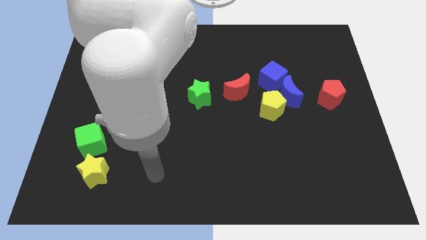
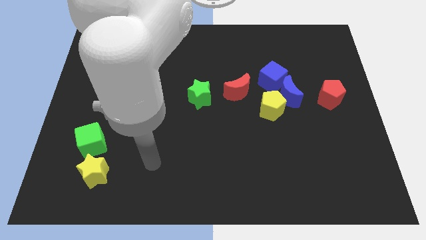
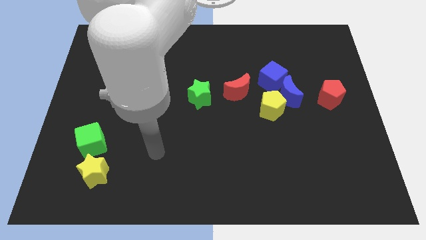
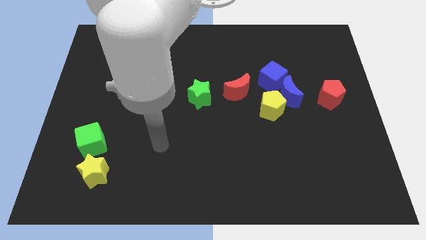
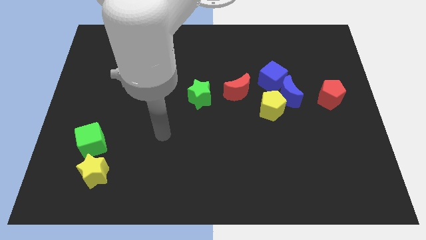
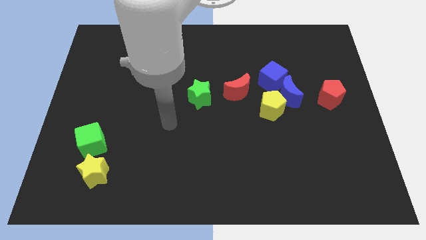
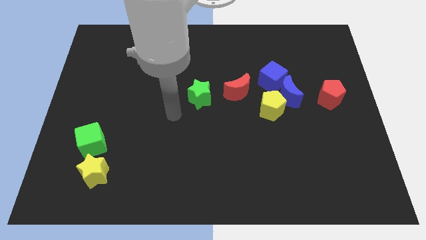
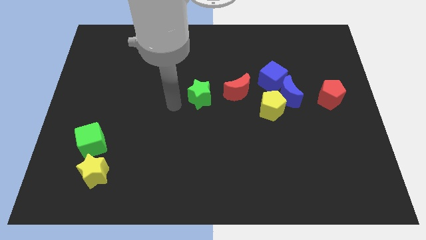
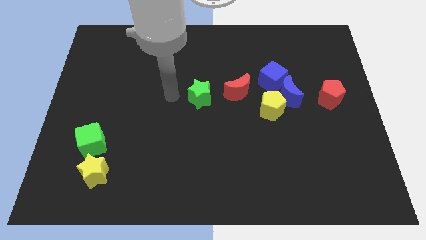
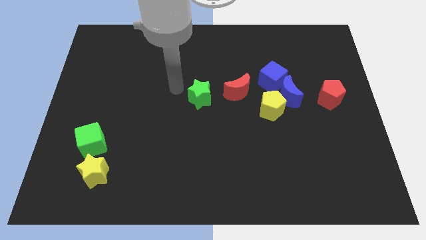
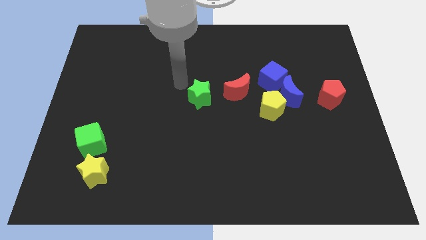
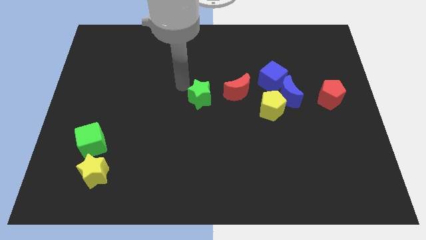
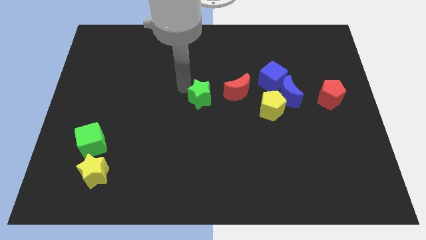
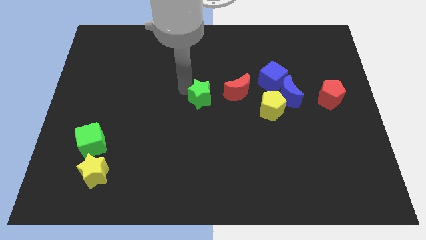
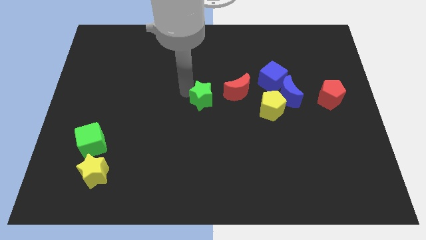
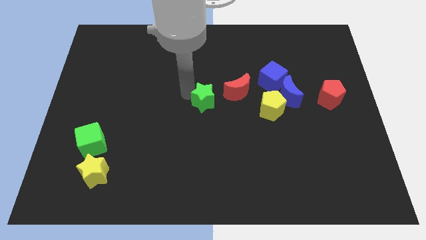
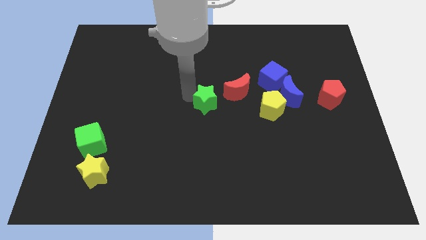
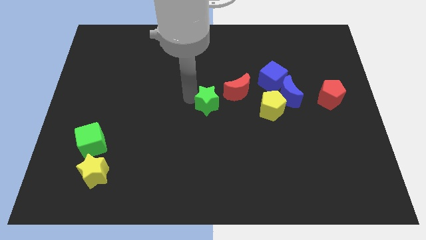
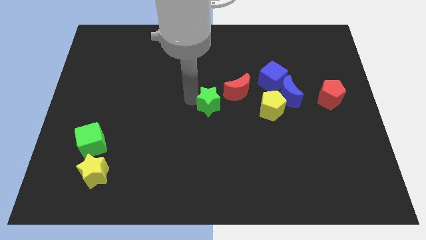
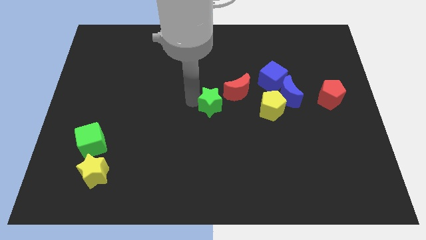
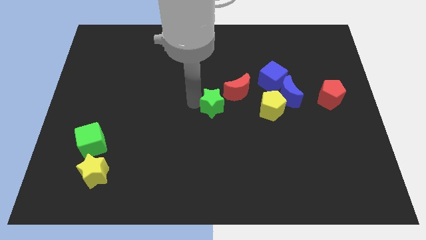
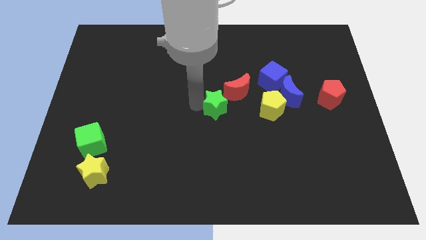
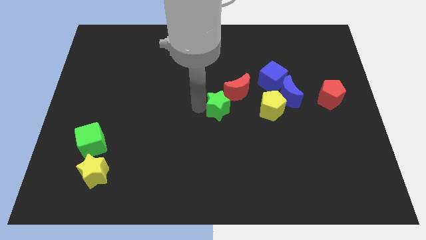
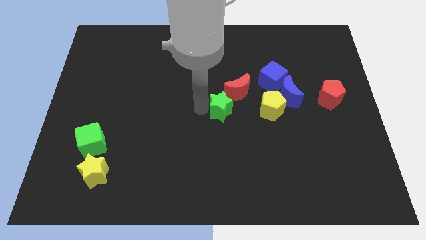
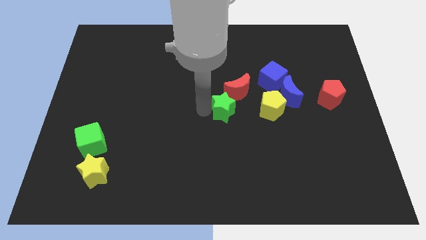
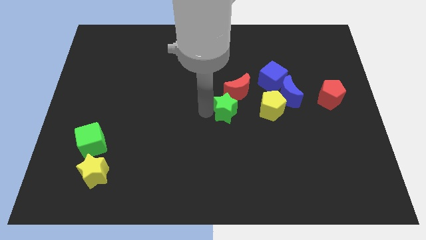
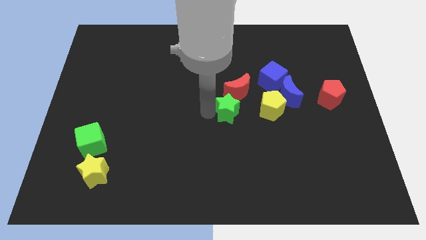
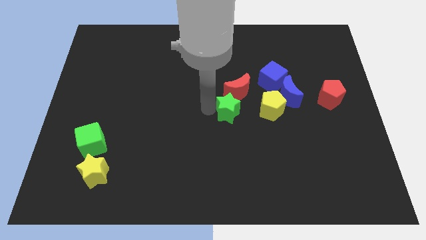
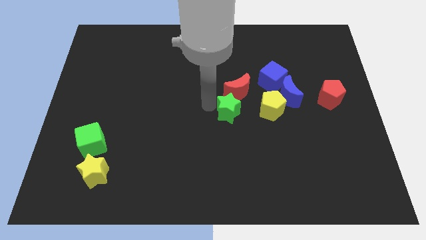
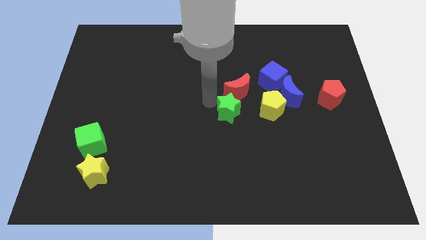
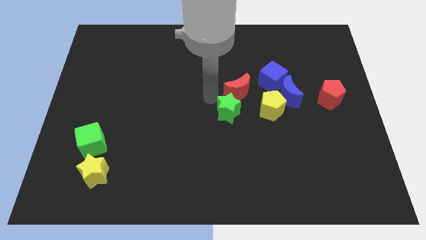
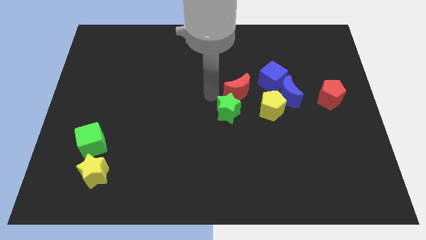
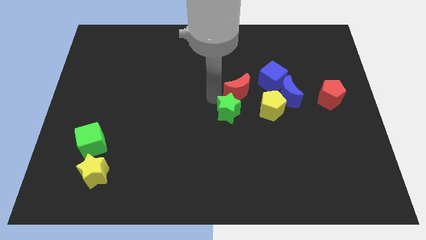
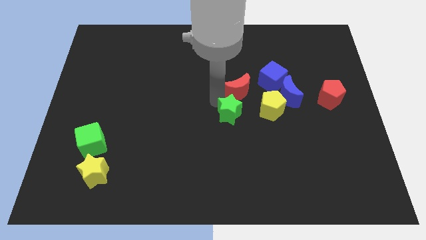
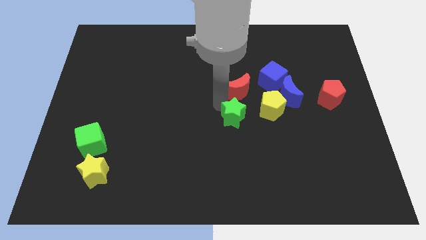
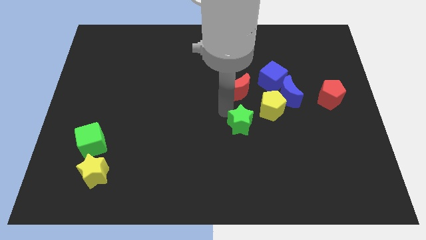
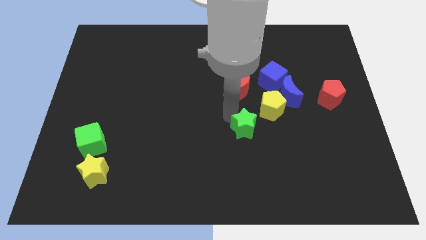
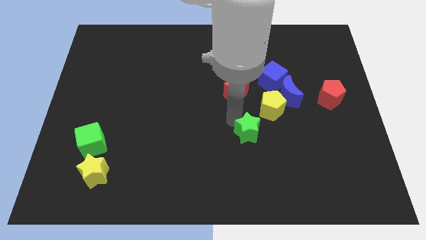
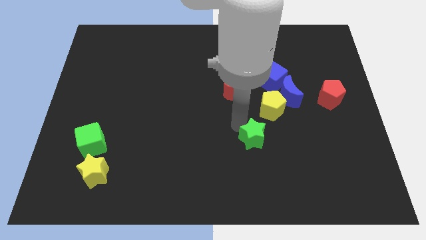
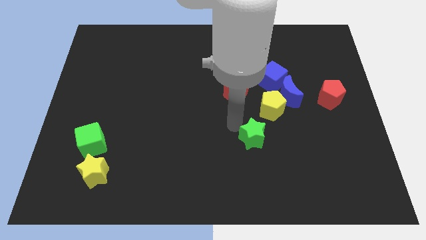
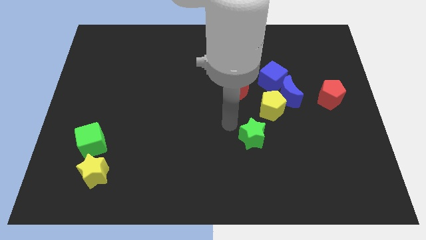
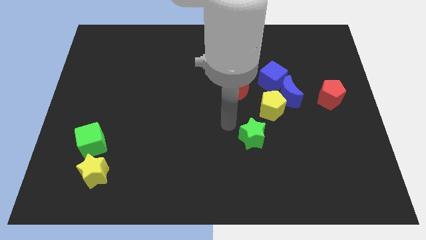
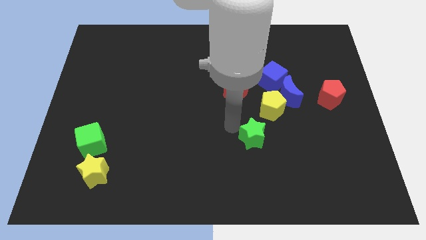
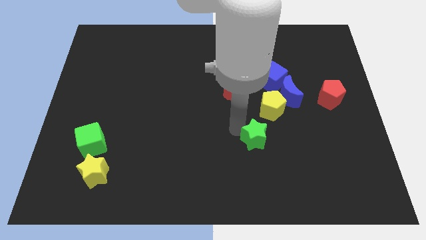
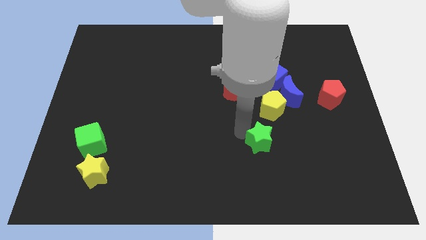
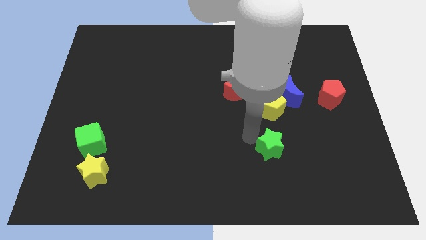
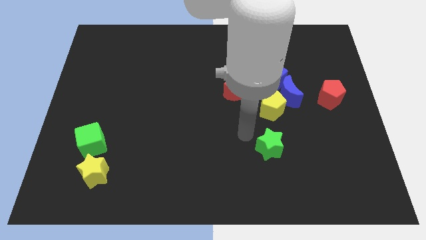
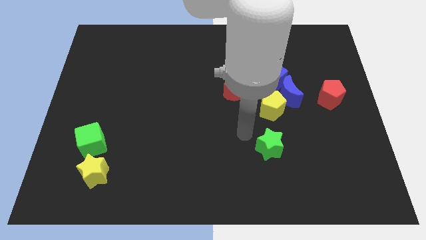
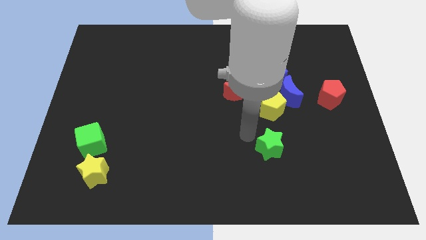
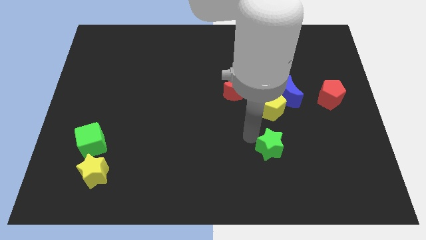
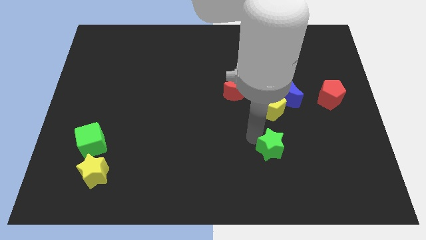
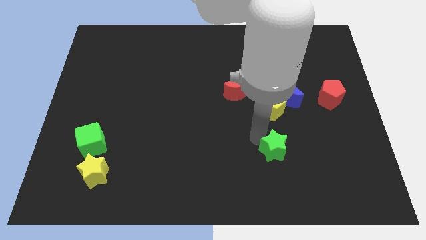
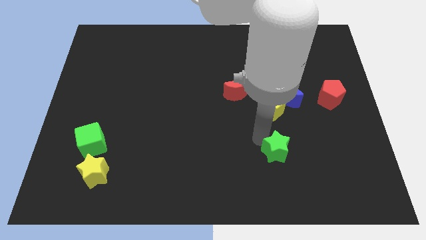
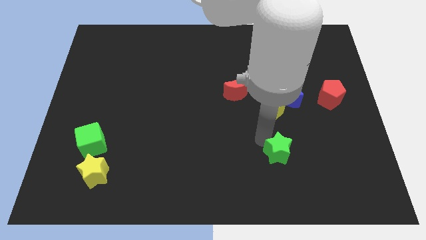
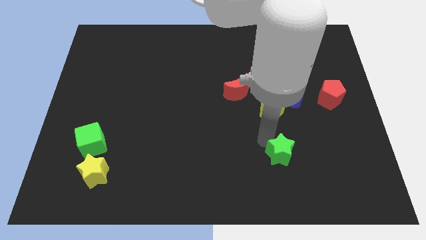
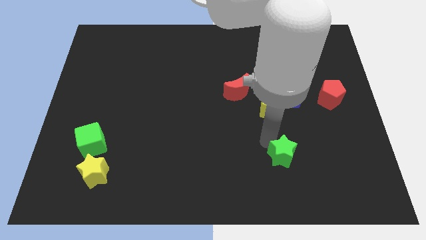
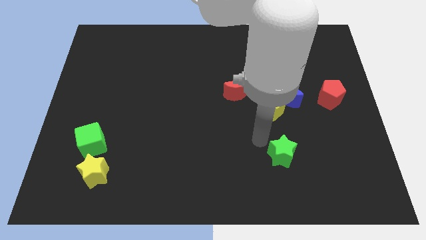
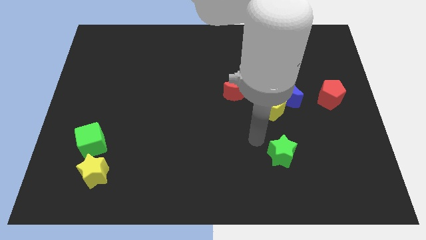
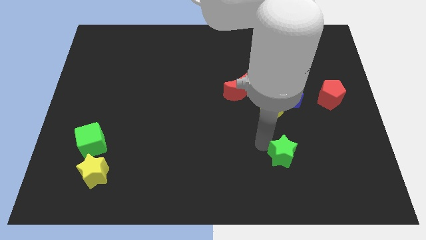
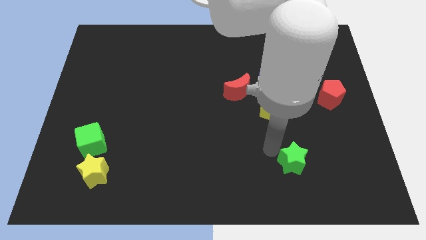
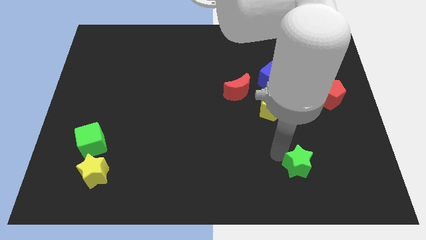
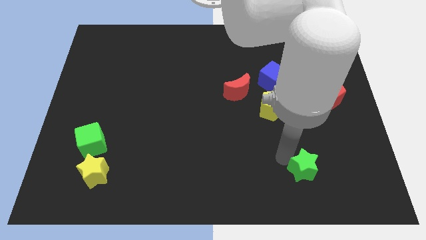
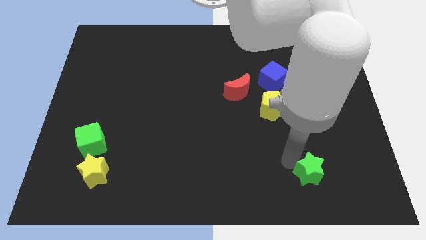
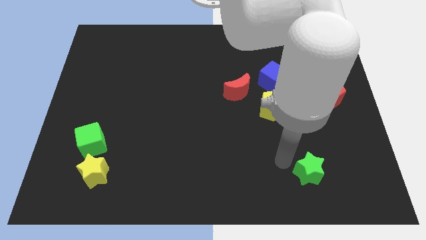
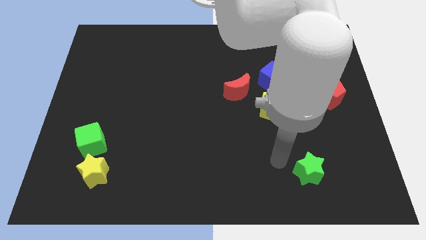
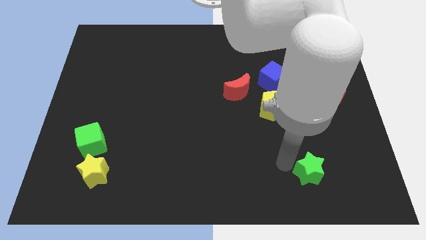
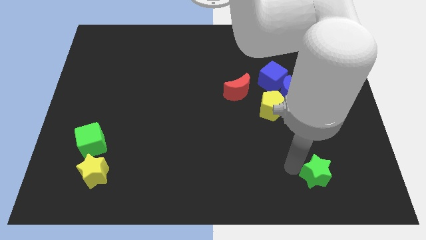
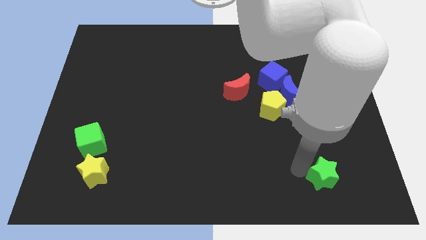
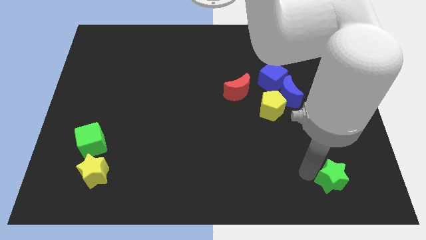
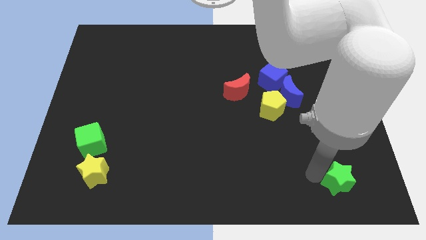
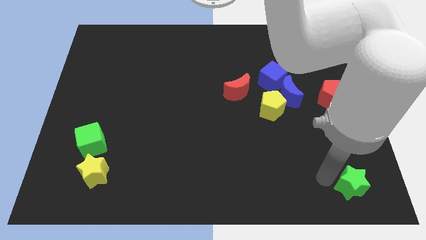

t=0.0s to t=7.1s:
slide the green star to the bottom right of the board
